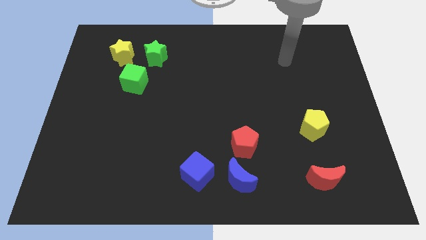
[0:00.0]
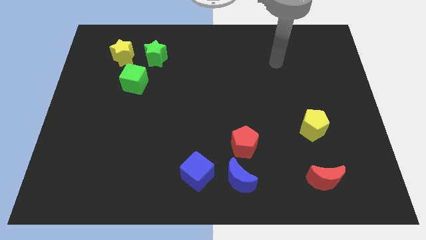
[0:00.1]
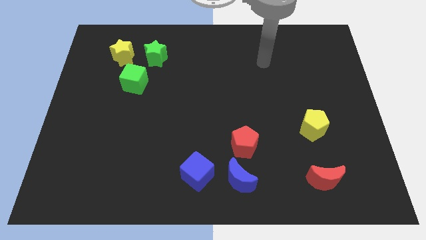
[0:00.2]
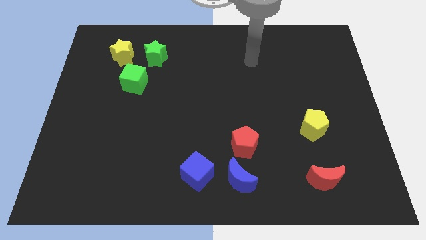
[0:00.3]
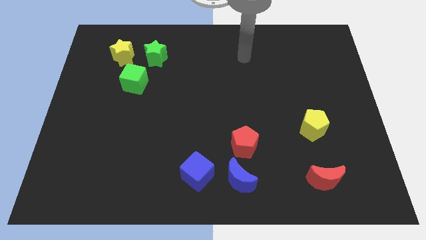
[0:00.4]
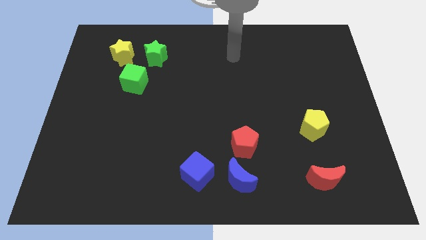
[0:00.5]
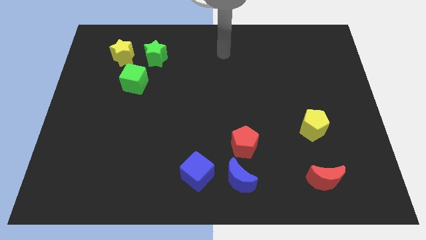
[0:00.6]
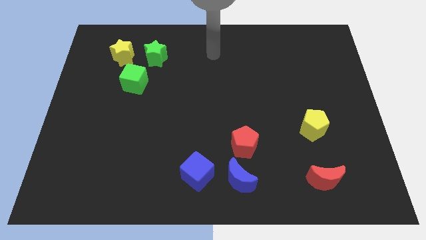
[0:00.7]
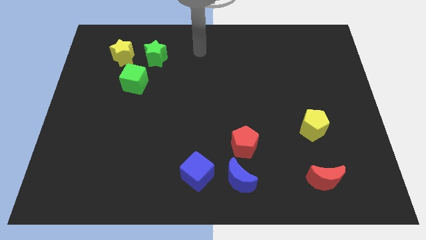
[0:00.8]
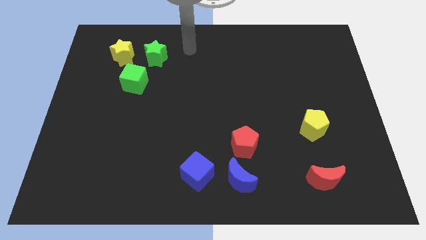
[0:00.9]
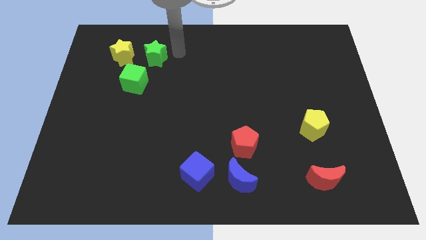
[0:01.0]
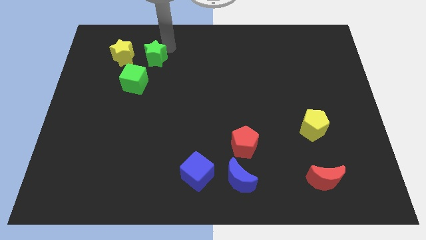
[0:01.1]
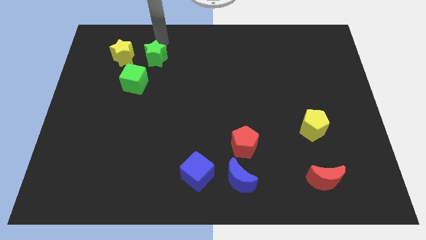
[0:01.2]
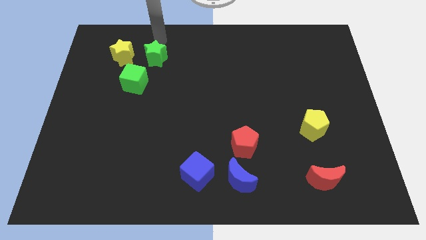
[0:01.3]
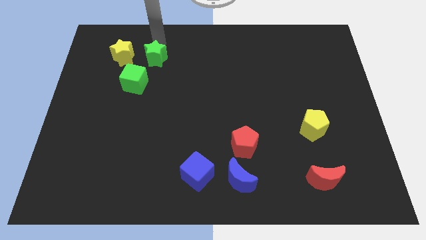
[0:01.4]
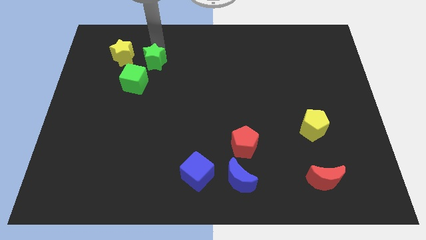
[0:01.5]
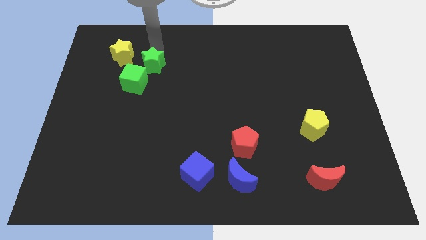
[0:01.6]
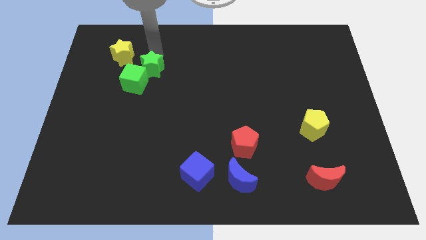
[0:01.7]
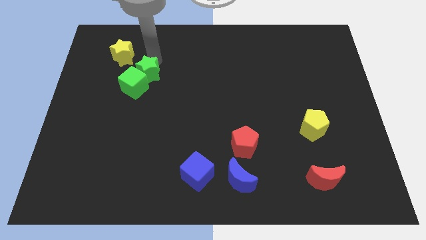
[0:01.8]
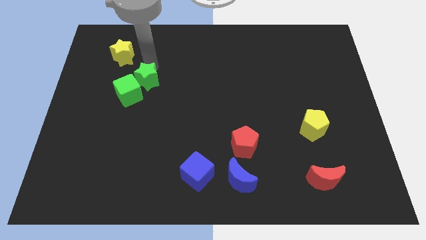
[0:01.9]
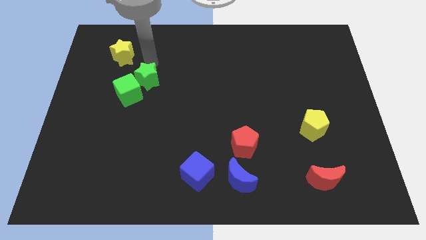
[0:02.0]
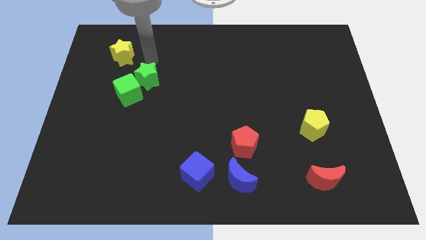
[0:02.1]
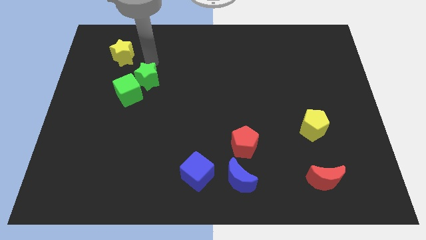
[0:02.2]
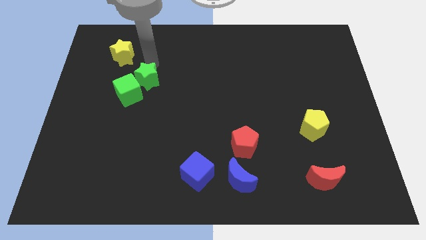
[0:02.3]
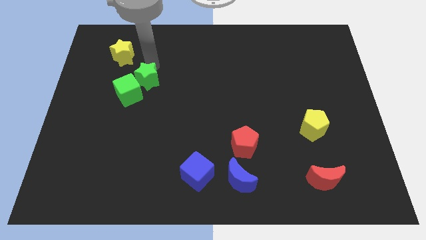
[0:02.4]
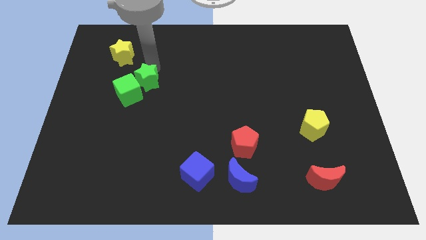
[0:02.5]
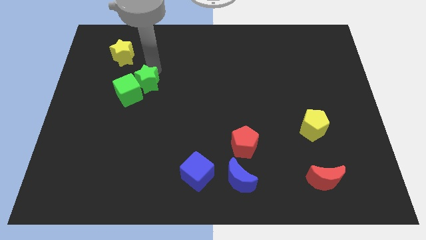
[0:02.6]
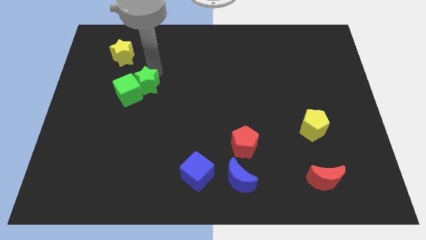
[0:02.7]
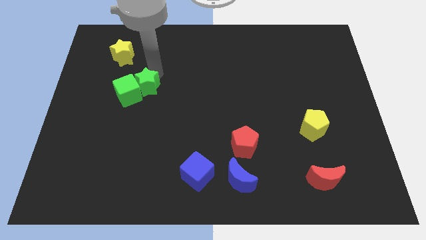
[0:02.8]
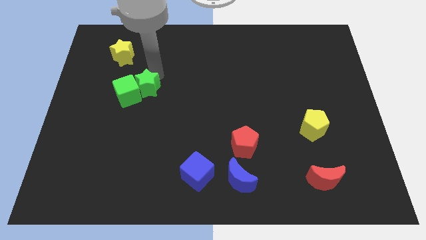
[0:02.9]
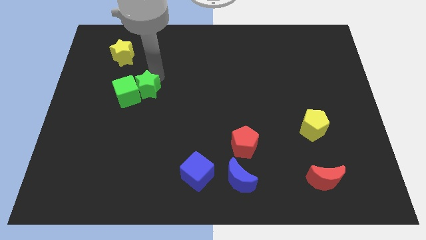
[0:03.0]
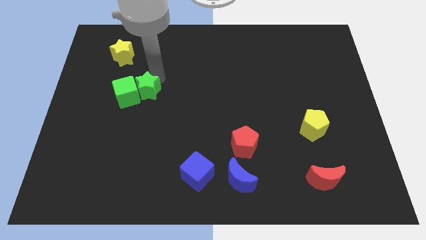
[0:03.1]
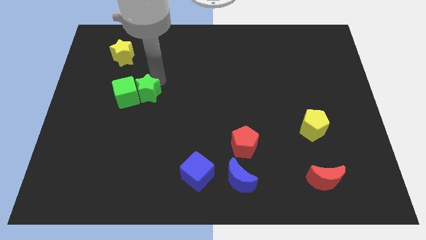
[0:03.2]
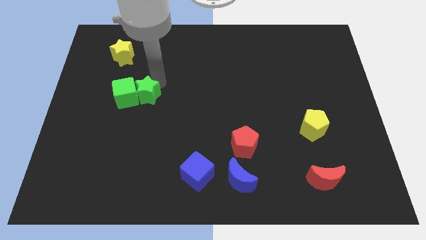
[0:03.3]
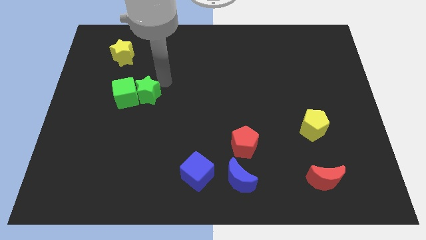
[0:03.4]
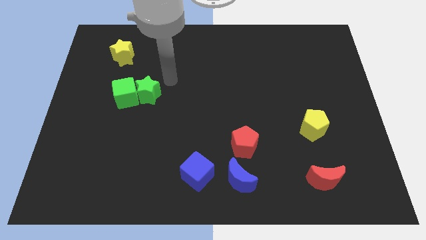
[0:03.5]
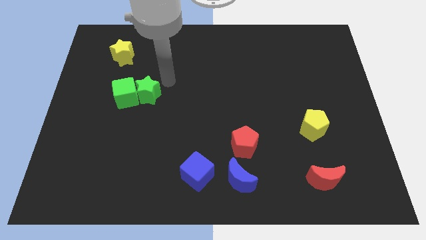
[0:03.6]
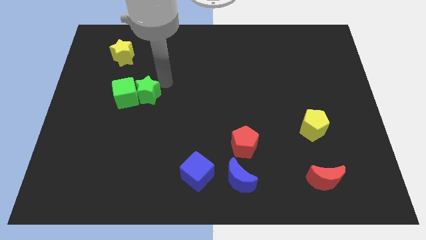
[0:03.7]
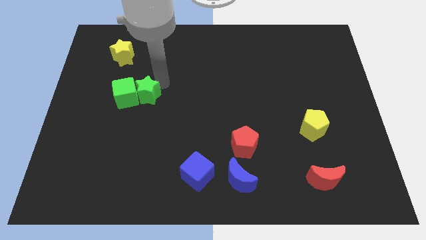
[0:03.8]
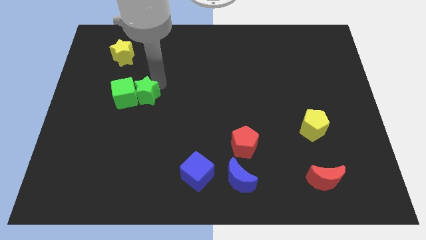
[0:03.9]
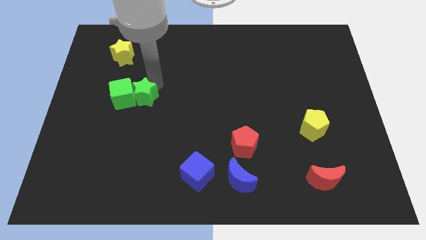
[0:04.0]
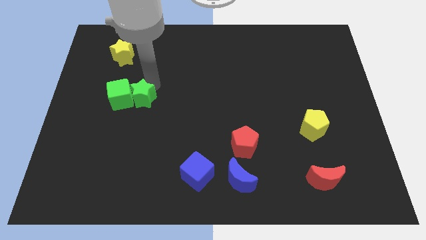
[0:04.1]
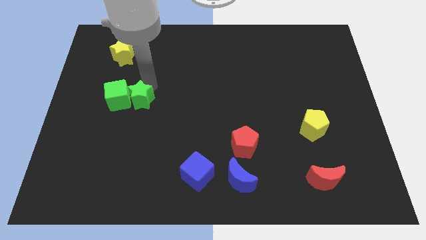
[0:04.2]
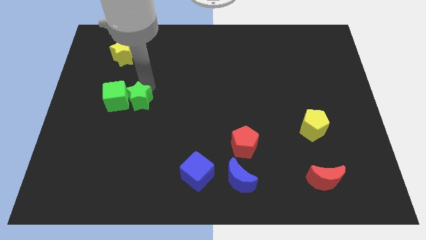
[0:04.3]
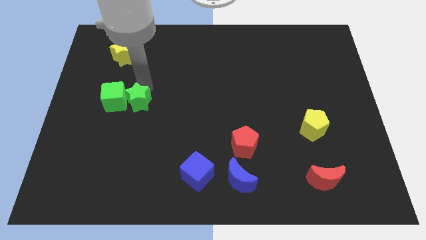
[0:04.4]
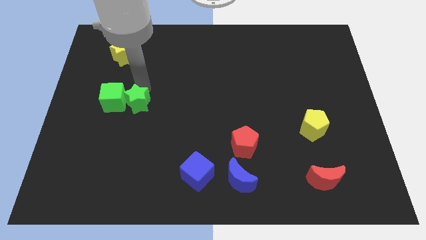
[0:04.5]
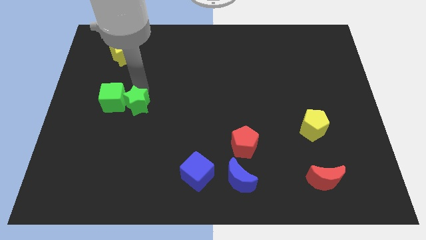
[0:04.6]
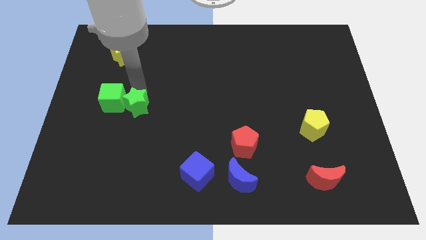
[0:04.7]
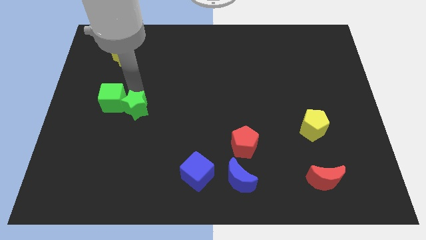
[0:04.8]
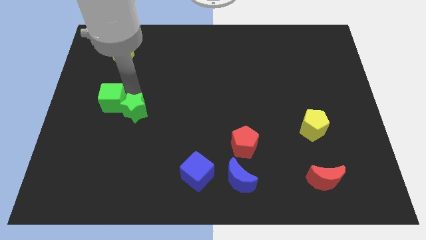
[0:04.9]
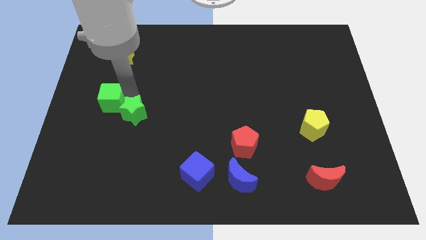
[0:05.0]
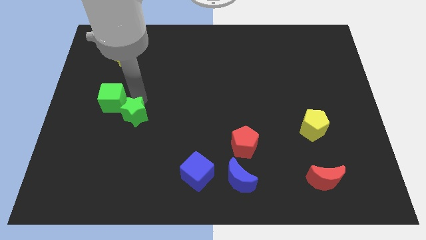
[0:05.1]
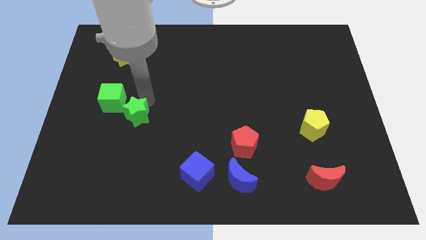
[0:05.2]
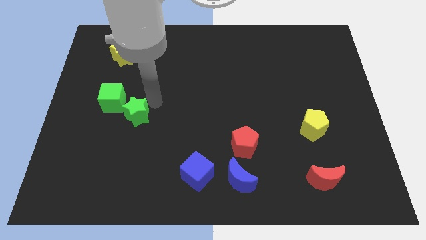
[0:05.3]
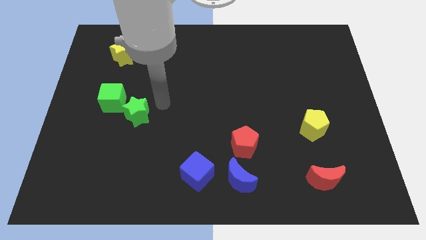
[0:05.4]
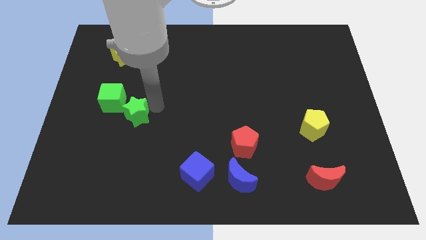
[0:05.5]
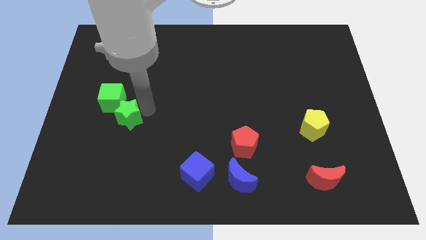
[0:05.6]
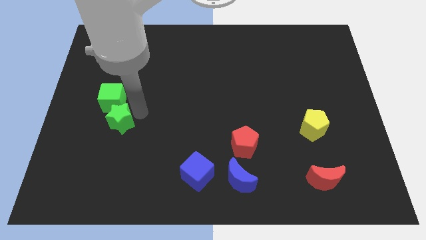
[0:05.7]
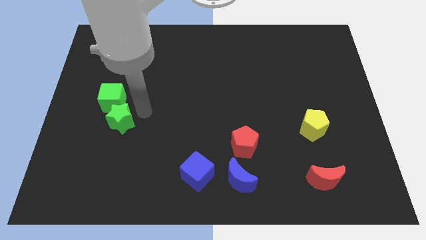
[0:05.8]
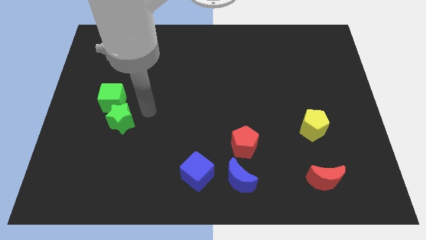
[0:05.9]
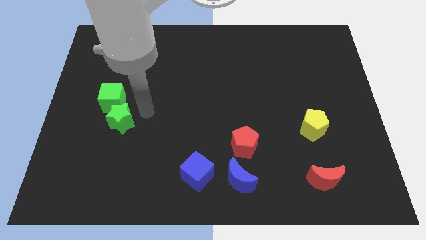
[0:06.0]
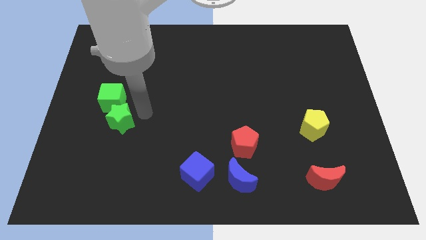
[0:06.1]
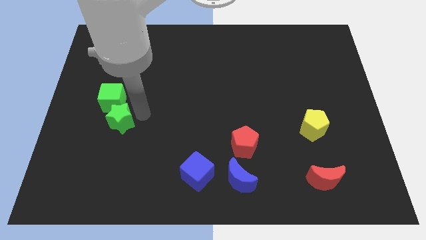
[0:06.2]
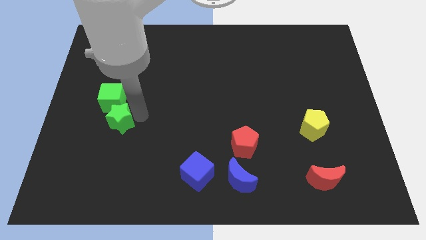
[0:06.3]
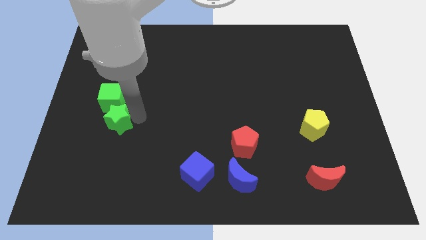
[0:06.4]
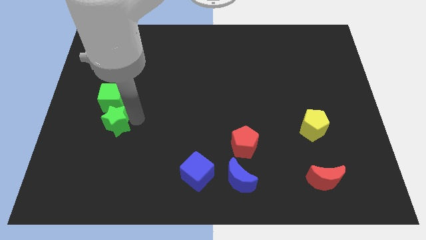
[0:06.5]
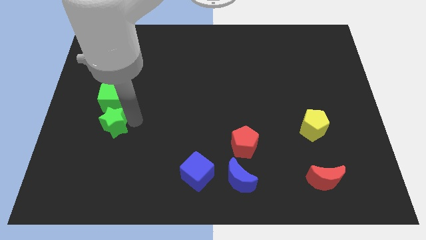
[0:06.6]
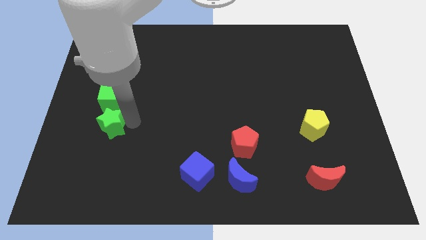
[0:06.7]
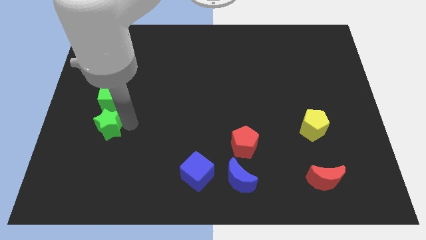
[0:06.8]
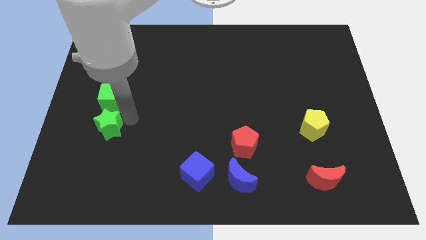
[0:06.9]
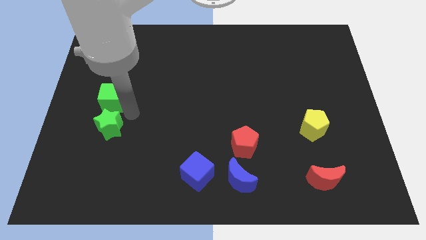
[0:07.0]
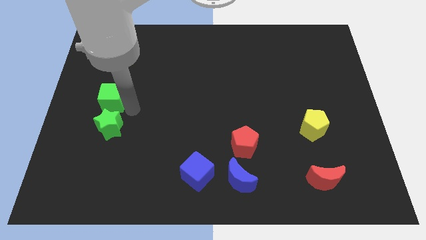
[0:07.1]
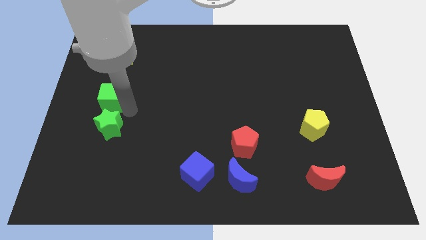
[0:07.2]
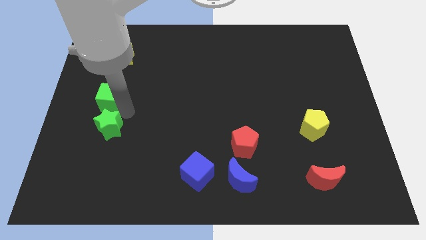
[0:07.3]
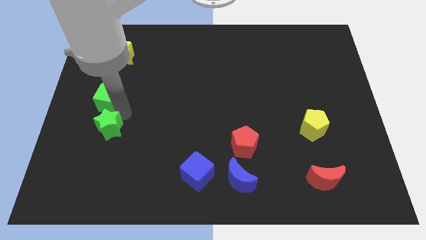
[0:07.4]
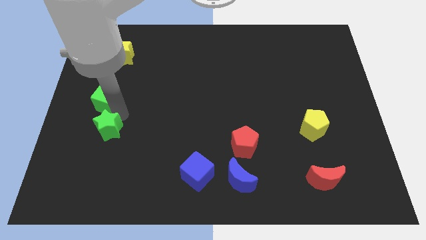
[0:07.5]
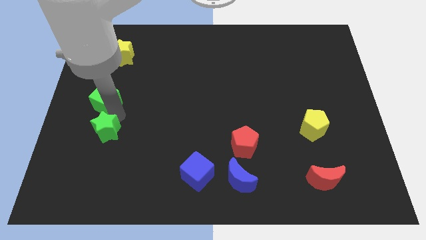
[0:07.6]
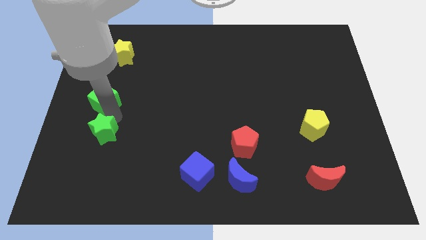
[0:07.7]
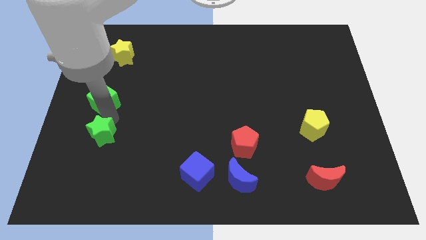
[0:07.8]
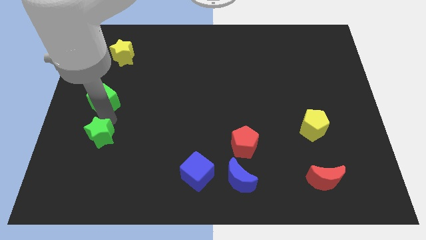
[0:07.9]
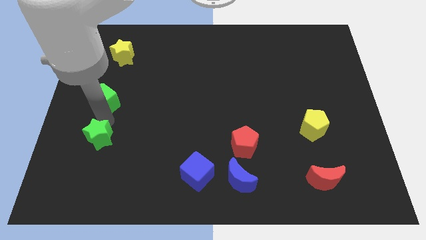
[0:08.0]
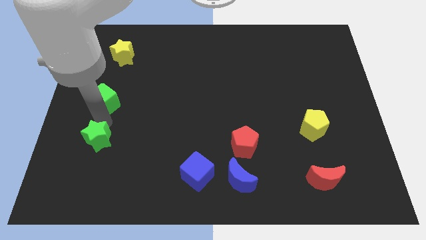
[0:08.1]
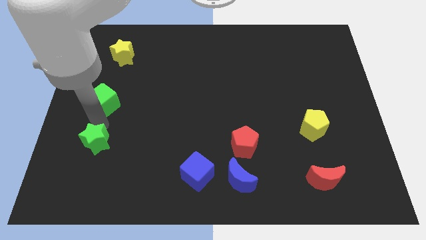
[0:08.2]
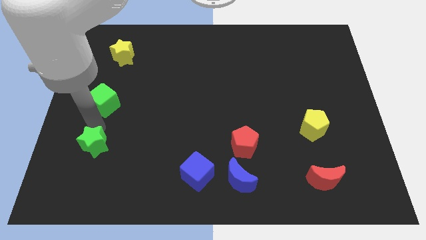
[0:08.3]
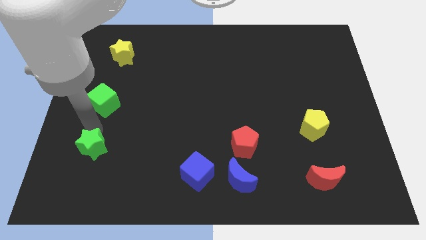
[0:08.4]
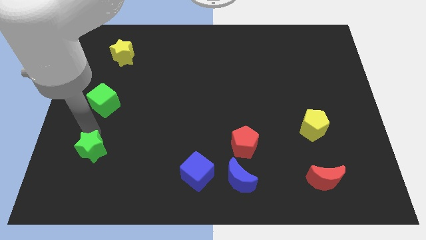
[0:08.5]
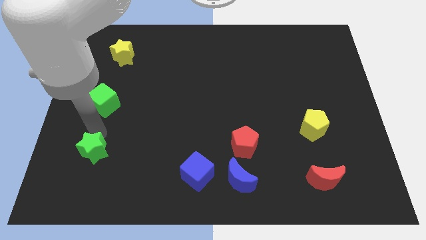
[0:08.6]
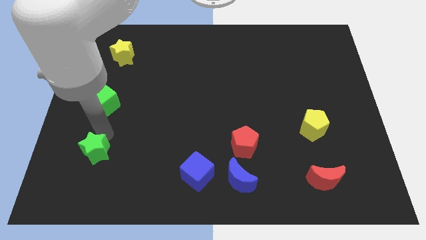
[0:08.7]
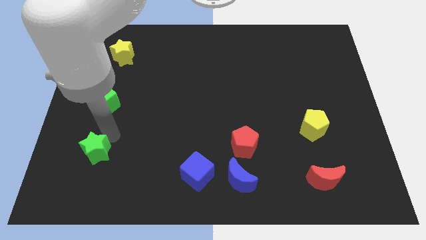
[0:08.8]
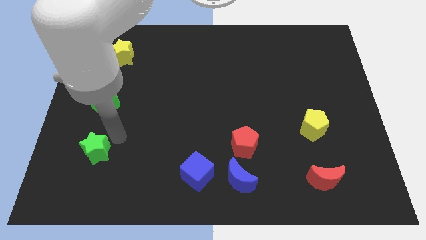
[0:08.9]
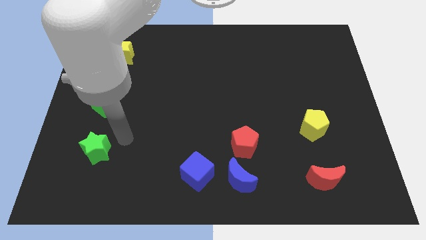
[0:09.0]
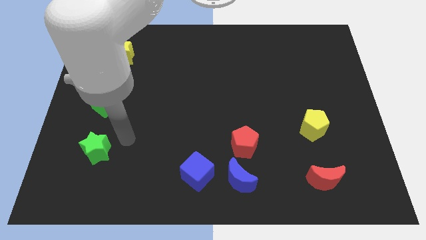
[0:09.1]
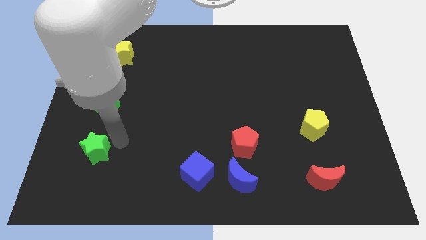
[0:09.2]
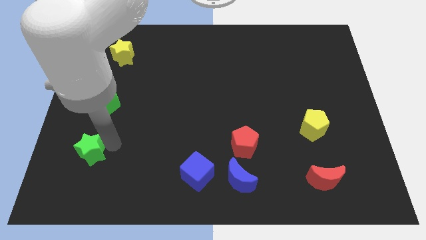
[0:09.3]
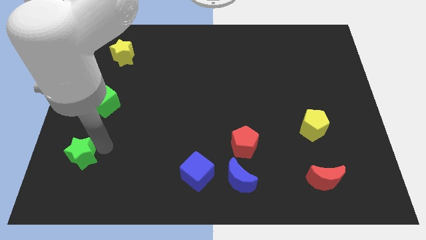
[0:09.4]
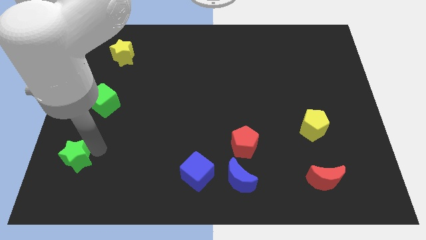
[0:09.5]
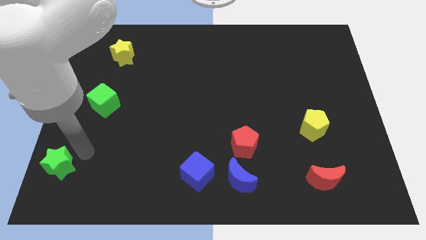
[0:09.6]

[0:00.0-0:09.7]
put the green star to the bottom left of the board
